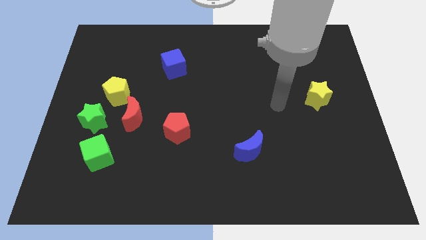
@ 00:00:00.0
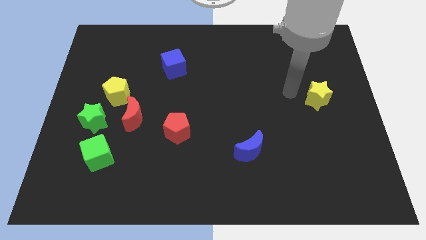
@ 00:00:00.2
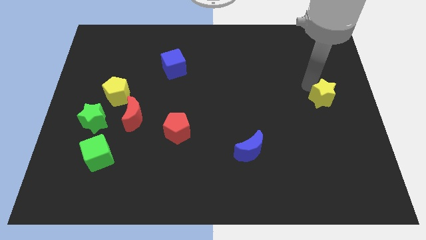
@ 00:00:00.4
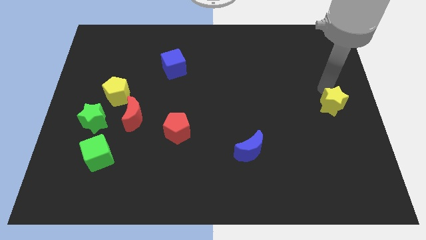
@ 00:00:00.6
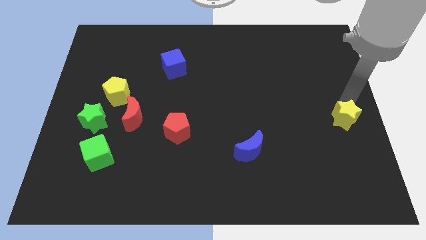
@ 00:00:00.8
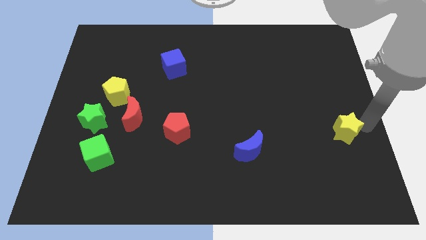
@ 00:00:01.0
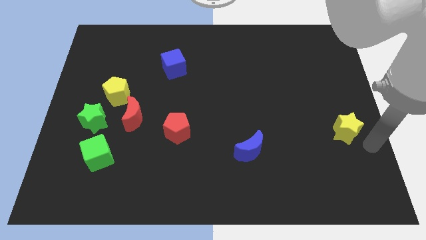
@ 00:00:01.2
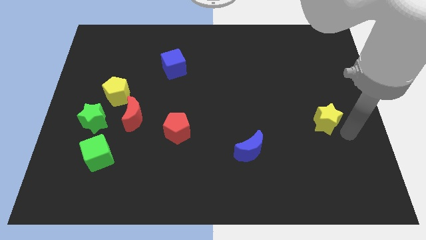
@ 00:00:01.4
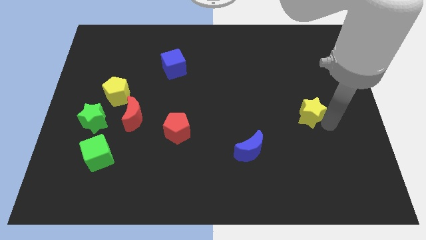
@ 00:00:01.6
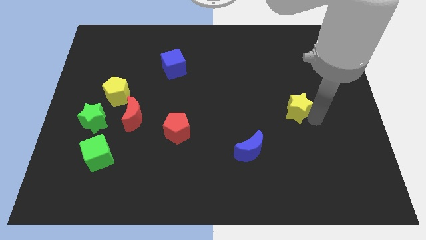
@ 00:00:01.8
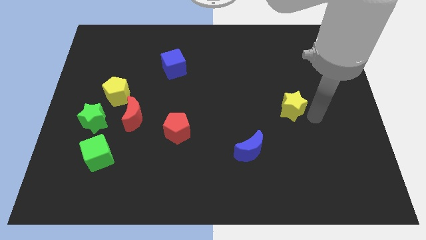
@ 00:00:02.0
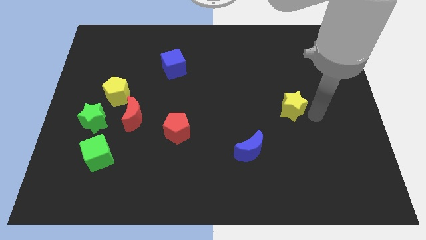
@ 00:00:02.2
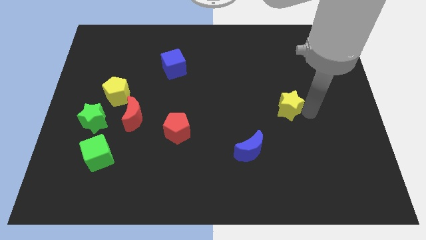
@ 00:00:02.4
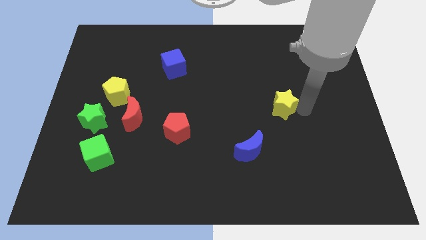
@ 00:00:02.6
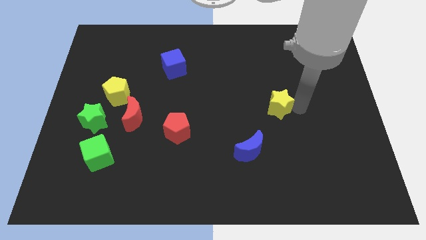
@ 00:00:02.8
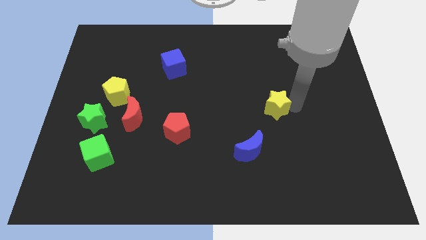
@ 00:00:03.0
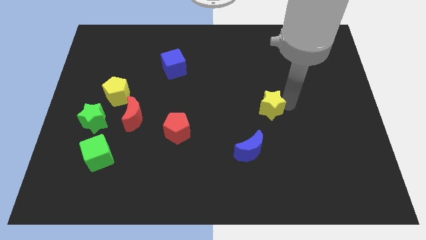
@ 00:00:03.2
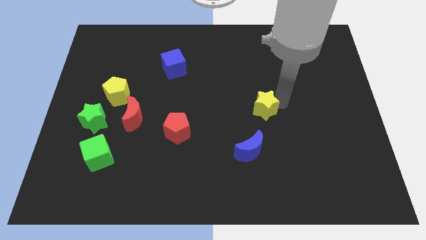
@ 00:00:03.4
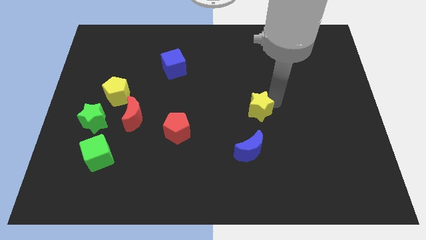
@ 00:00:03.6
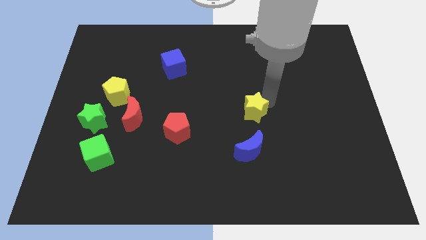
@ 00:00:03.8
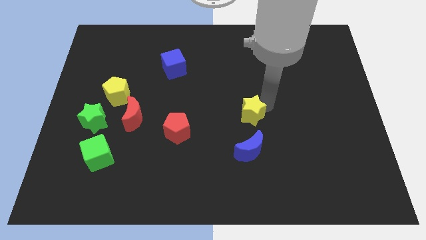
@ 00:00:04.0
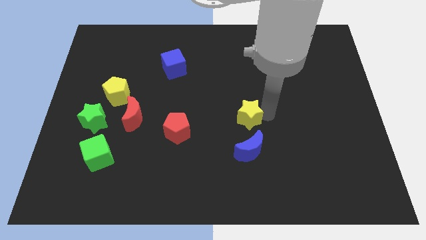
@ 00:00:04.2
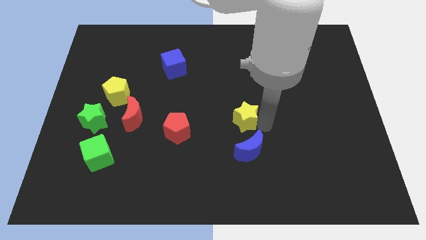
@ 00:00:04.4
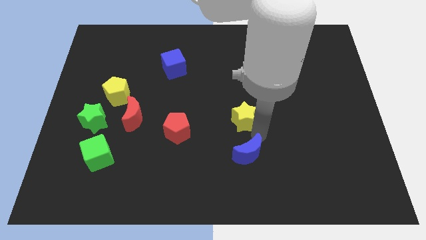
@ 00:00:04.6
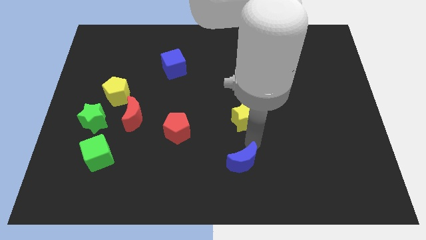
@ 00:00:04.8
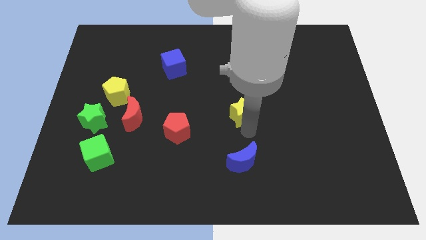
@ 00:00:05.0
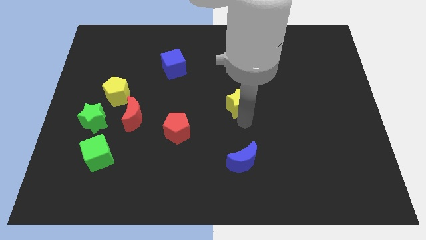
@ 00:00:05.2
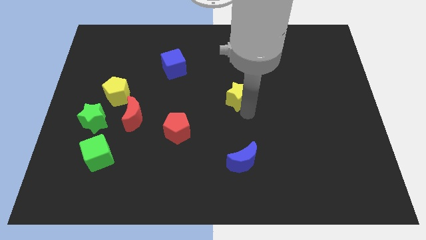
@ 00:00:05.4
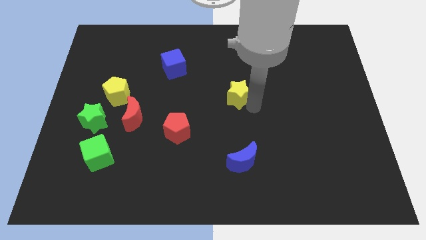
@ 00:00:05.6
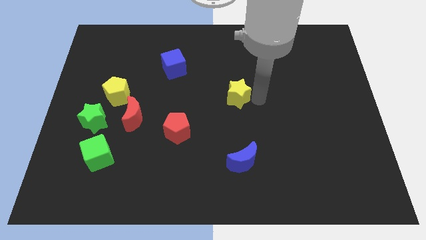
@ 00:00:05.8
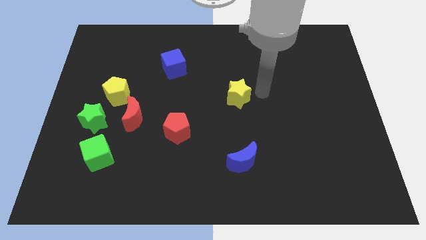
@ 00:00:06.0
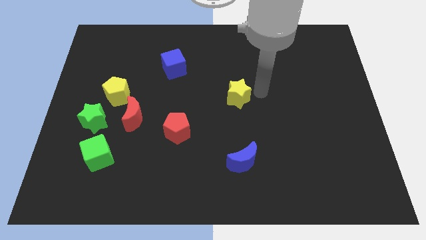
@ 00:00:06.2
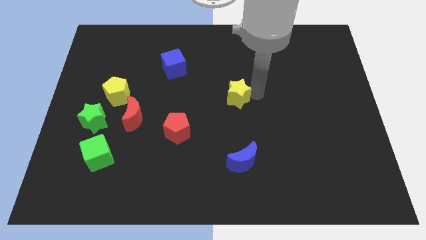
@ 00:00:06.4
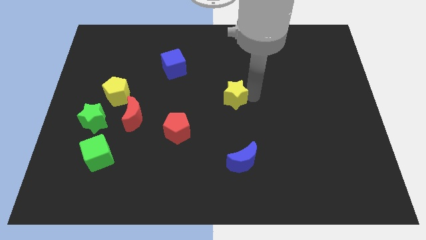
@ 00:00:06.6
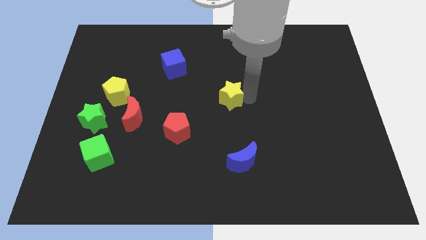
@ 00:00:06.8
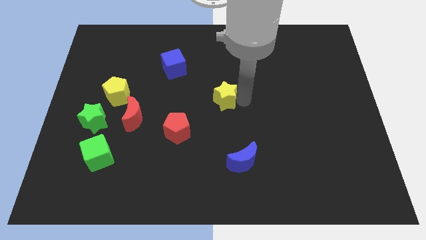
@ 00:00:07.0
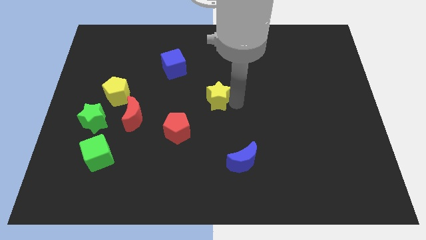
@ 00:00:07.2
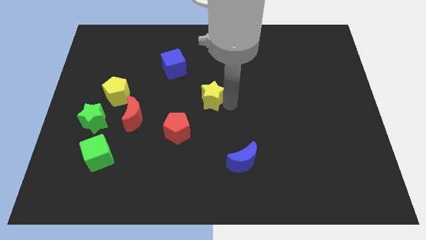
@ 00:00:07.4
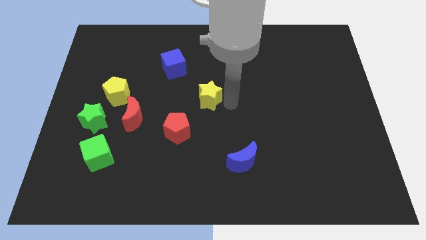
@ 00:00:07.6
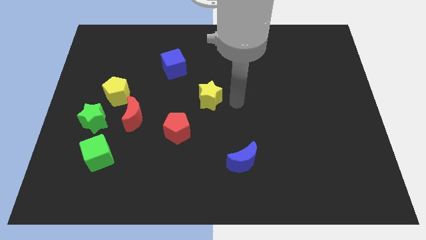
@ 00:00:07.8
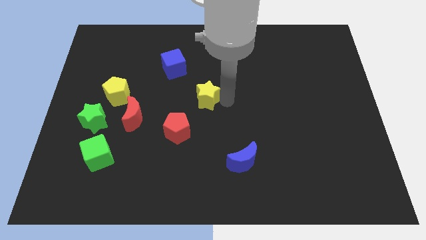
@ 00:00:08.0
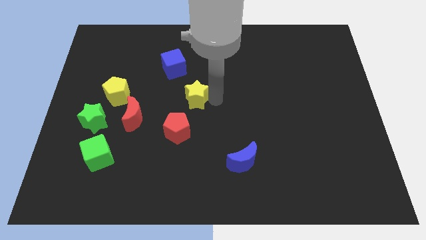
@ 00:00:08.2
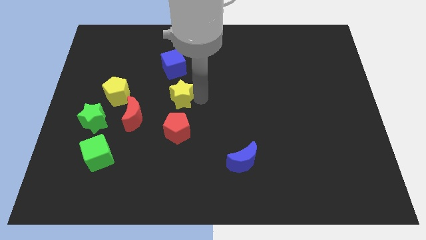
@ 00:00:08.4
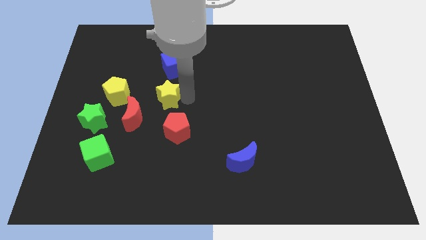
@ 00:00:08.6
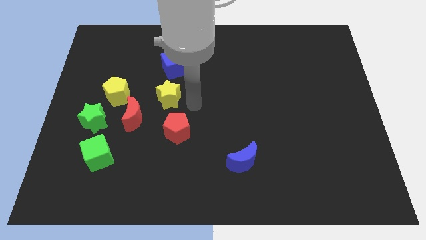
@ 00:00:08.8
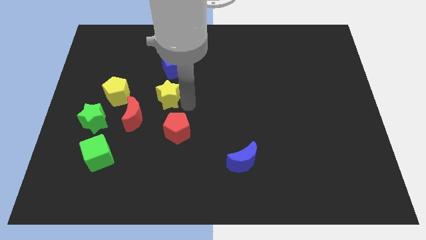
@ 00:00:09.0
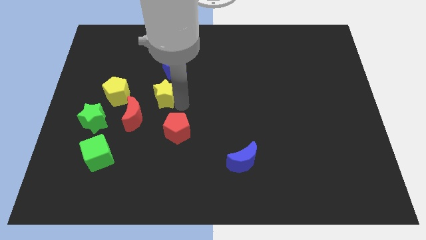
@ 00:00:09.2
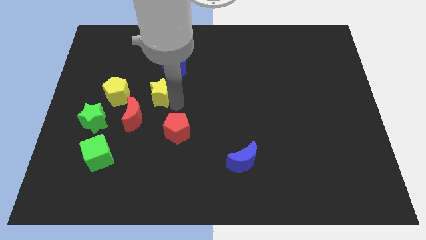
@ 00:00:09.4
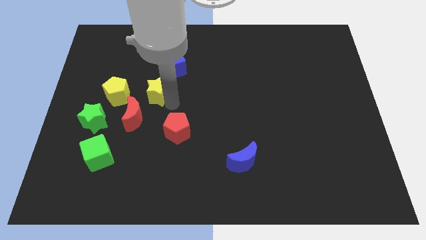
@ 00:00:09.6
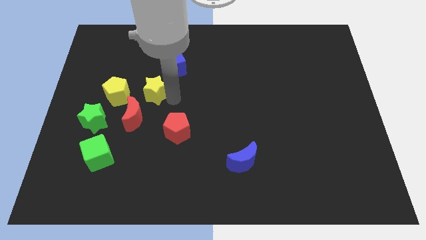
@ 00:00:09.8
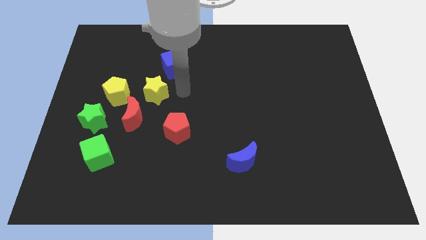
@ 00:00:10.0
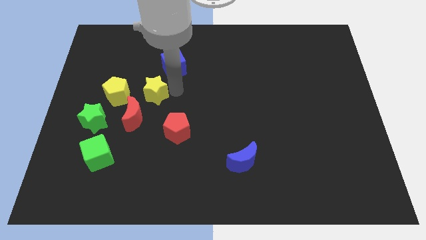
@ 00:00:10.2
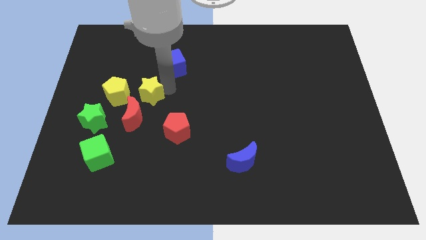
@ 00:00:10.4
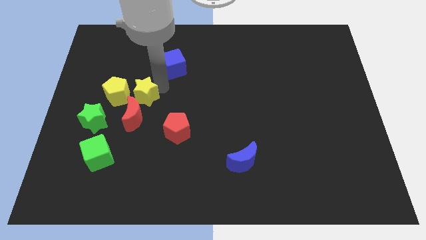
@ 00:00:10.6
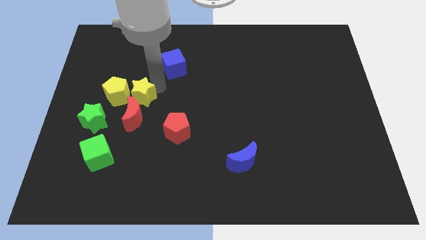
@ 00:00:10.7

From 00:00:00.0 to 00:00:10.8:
slide the yellow star towards the yellow pentagon

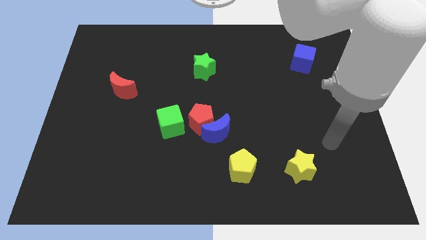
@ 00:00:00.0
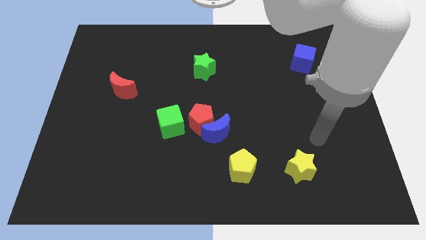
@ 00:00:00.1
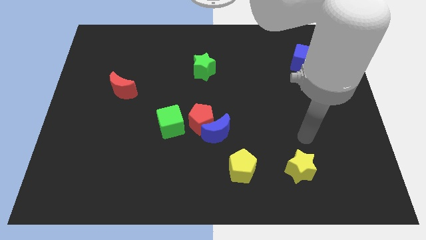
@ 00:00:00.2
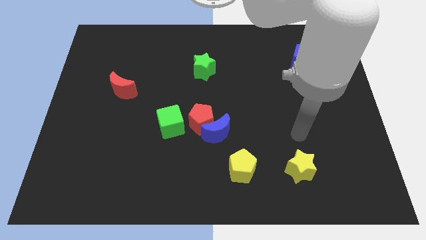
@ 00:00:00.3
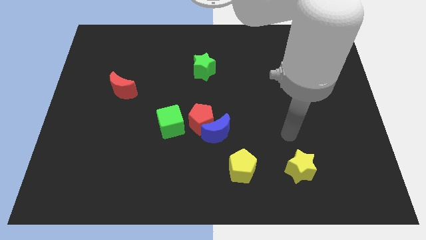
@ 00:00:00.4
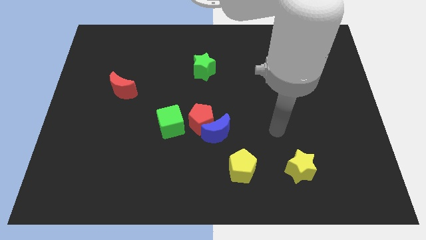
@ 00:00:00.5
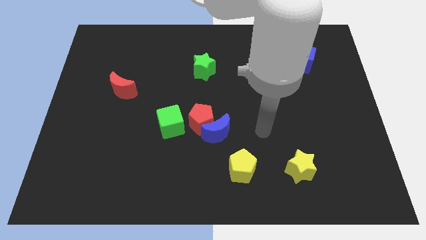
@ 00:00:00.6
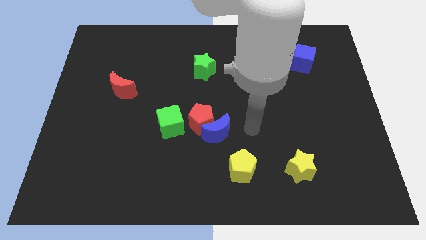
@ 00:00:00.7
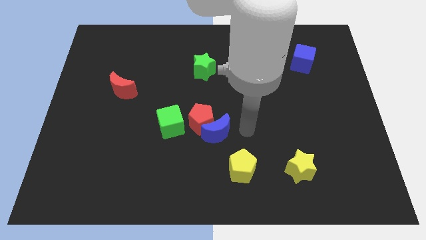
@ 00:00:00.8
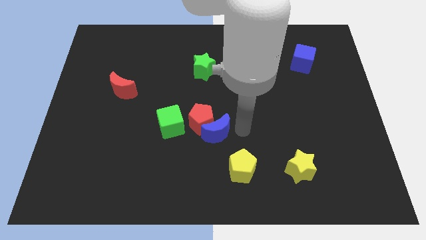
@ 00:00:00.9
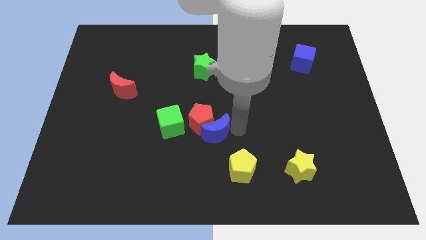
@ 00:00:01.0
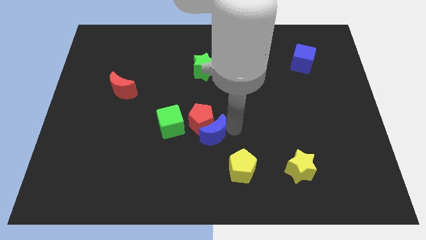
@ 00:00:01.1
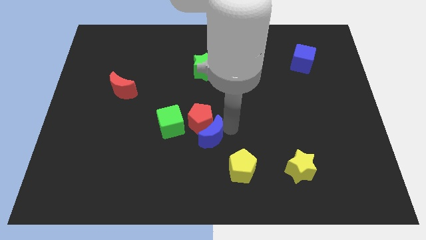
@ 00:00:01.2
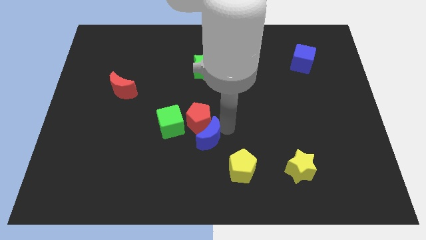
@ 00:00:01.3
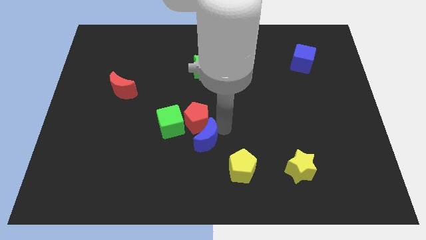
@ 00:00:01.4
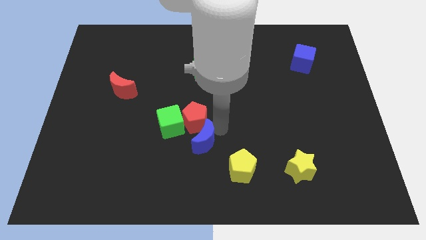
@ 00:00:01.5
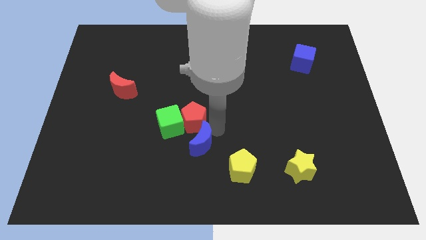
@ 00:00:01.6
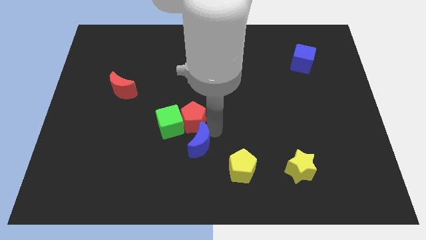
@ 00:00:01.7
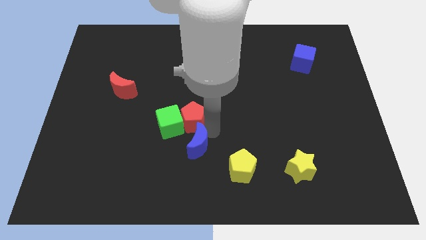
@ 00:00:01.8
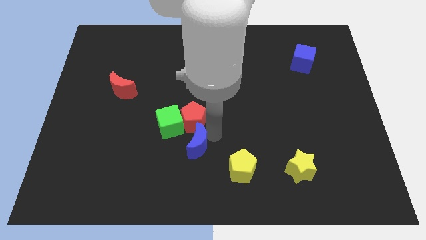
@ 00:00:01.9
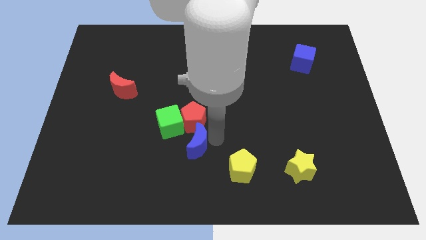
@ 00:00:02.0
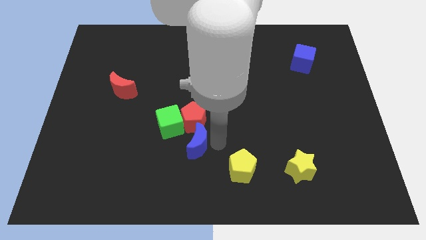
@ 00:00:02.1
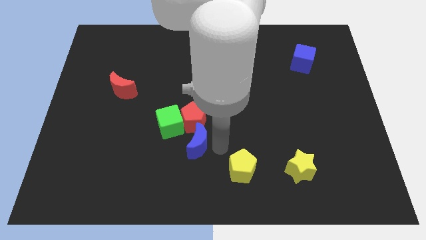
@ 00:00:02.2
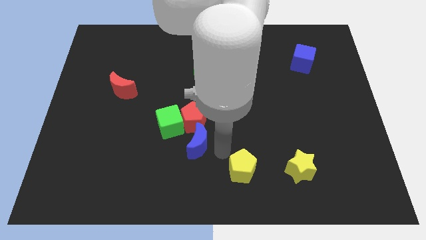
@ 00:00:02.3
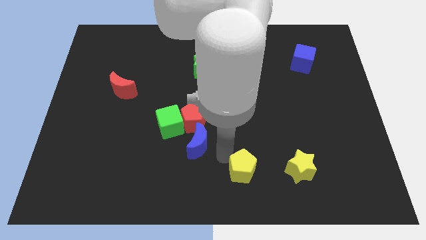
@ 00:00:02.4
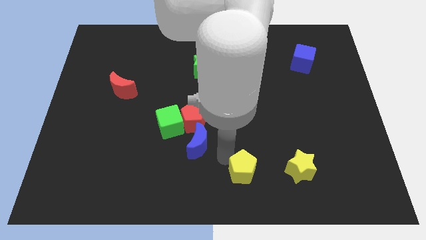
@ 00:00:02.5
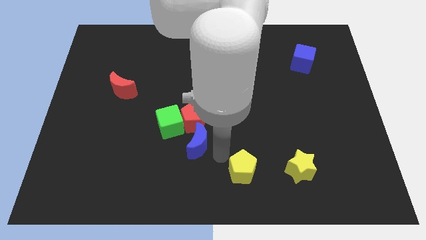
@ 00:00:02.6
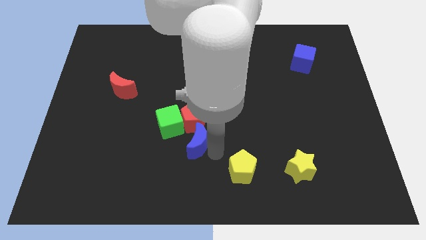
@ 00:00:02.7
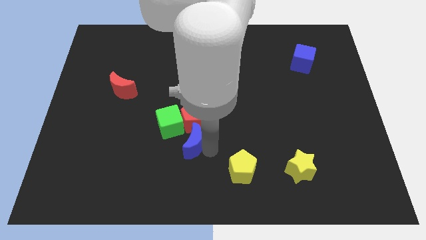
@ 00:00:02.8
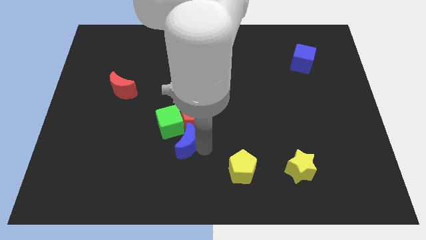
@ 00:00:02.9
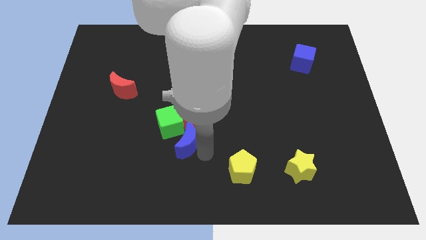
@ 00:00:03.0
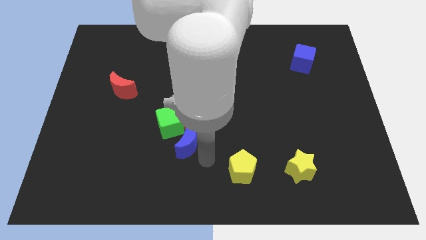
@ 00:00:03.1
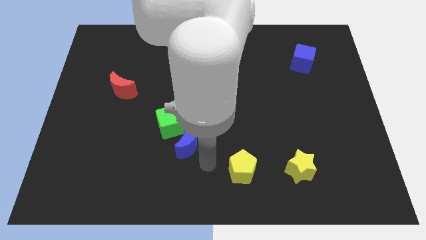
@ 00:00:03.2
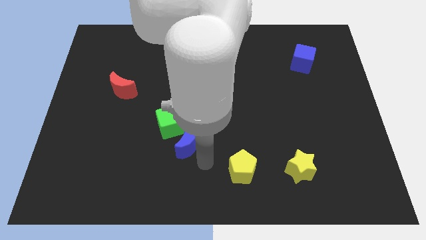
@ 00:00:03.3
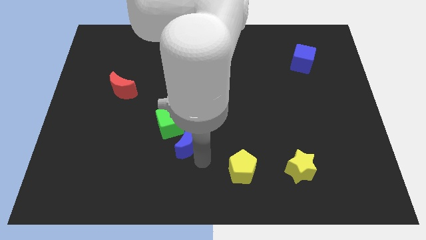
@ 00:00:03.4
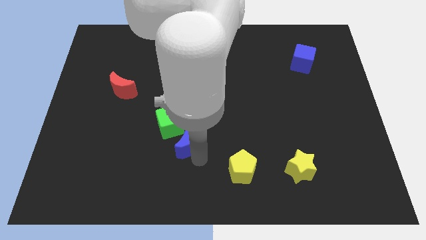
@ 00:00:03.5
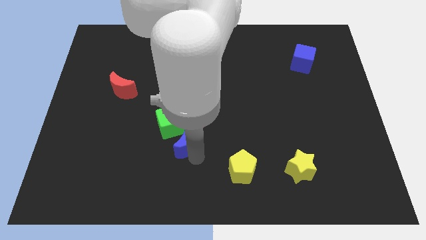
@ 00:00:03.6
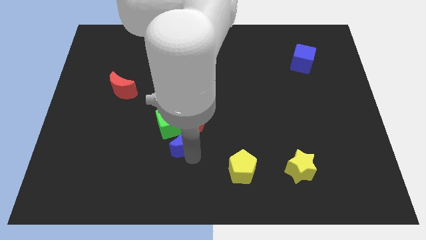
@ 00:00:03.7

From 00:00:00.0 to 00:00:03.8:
put the blue moon towards the green cube
